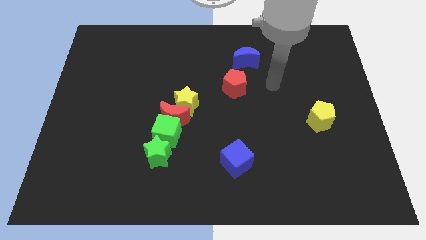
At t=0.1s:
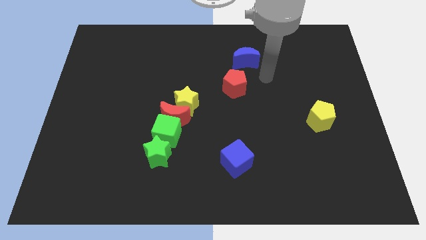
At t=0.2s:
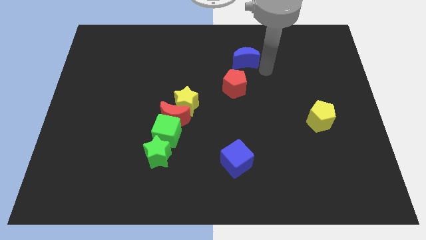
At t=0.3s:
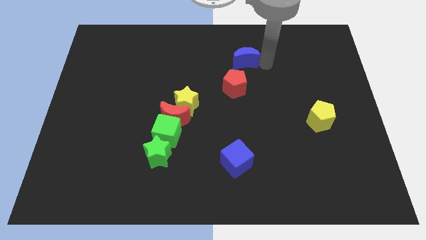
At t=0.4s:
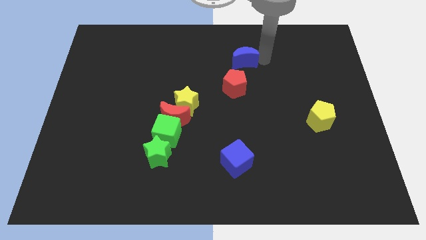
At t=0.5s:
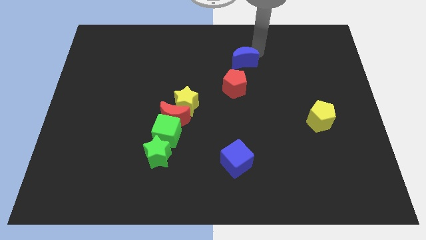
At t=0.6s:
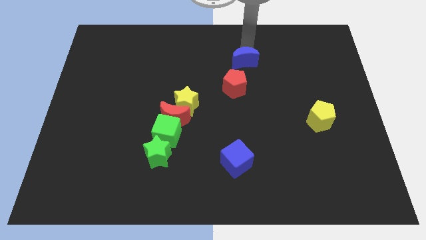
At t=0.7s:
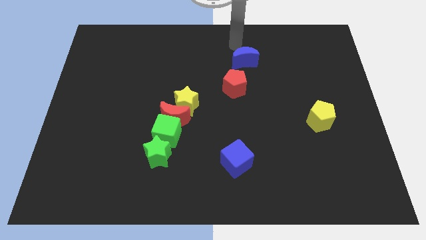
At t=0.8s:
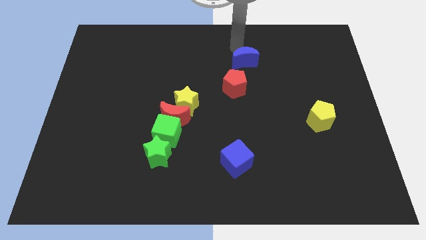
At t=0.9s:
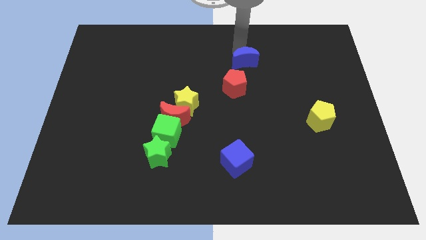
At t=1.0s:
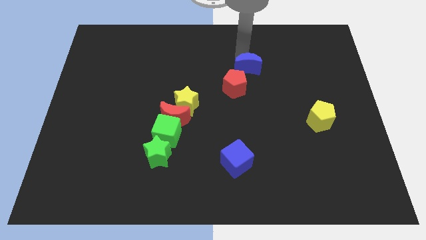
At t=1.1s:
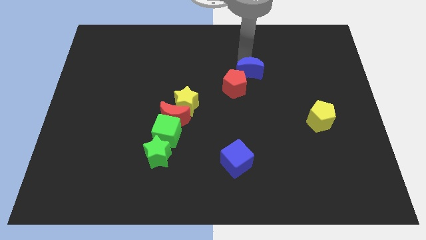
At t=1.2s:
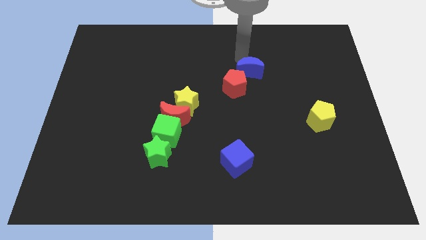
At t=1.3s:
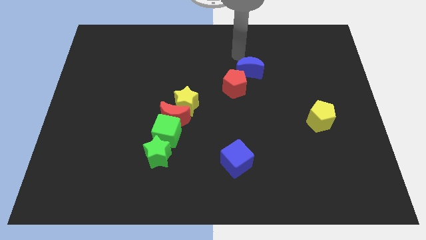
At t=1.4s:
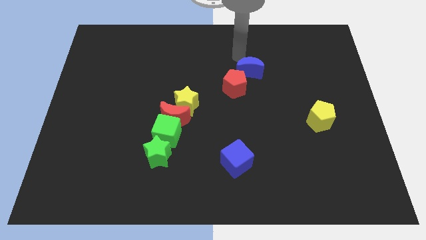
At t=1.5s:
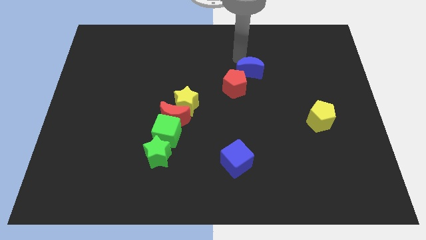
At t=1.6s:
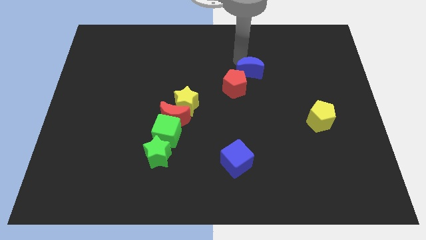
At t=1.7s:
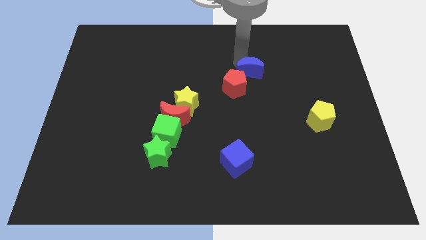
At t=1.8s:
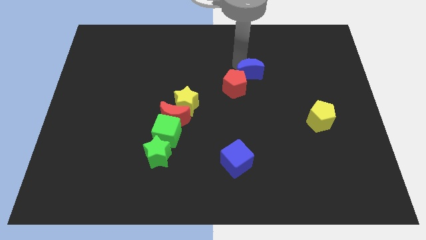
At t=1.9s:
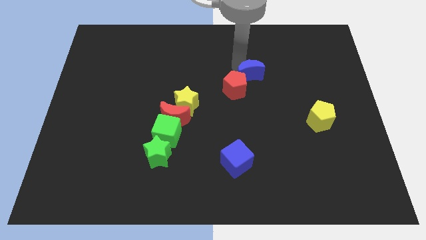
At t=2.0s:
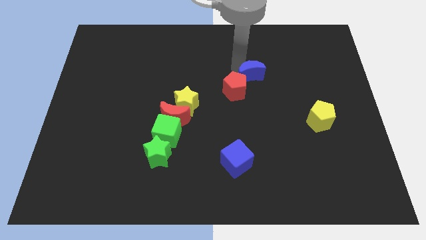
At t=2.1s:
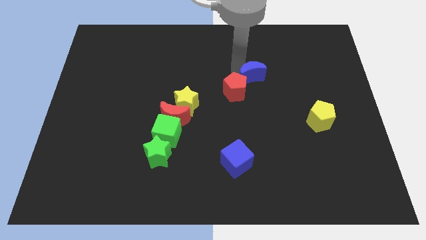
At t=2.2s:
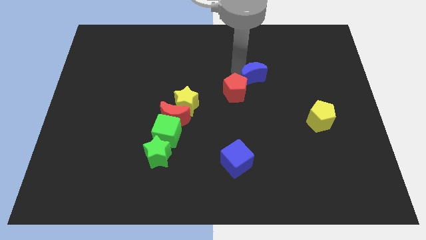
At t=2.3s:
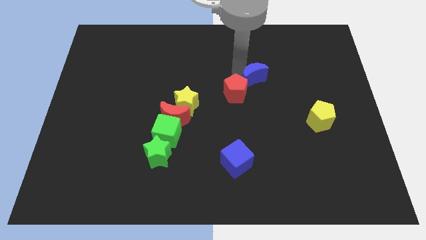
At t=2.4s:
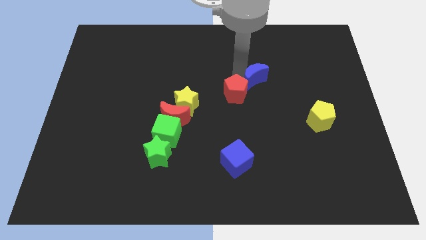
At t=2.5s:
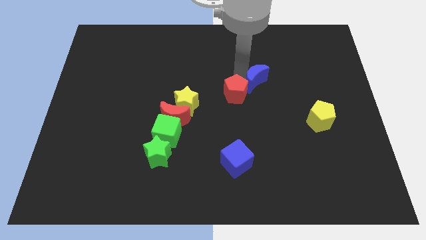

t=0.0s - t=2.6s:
move the blue moon a little downwards

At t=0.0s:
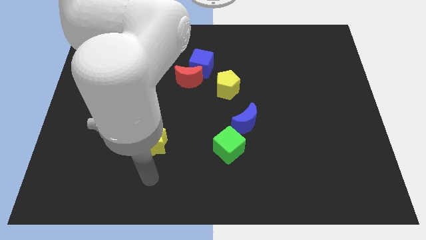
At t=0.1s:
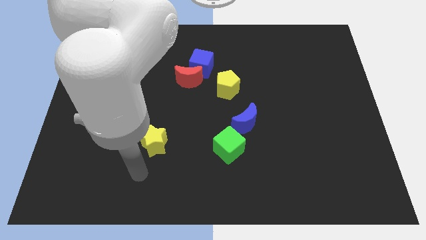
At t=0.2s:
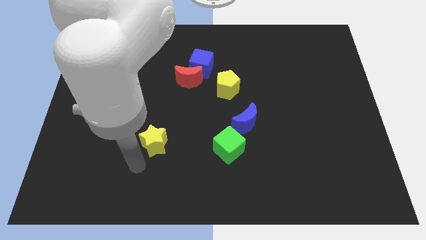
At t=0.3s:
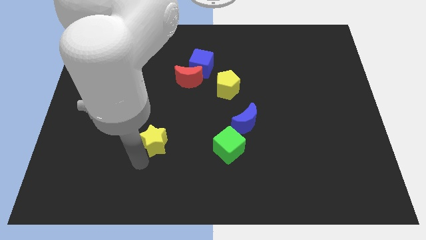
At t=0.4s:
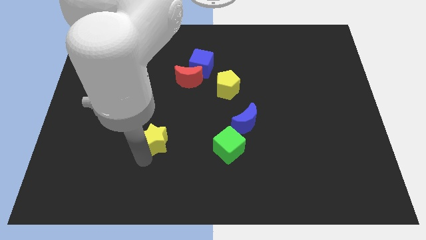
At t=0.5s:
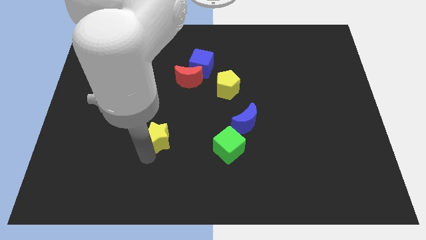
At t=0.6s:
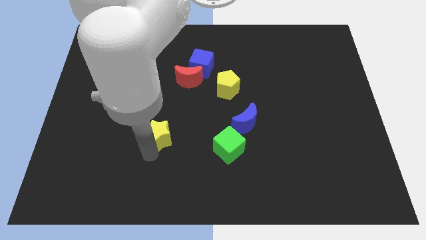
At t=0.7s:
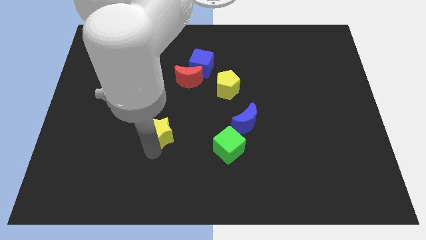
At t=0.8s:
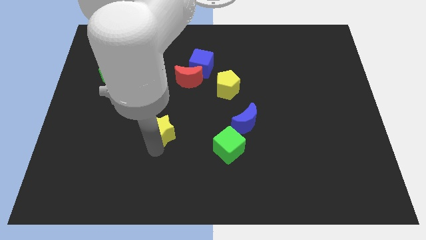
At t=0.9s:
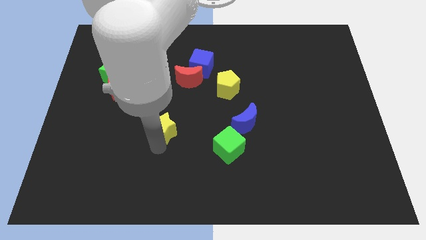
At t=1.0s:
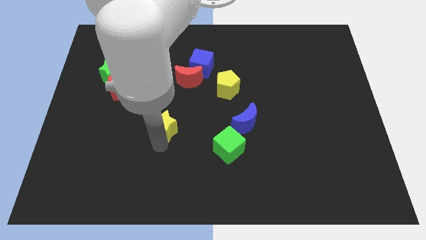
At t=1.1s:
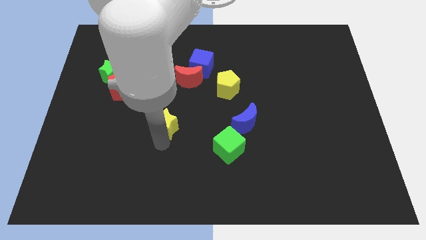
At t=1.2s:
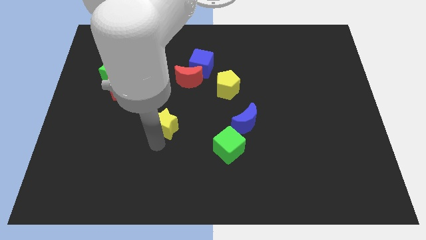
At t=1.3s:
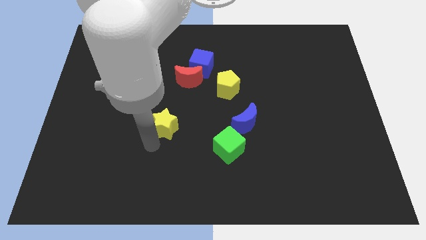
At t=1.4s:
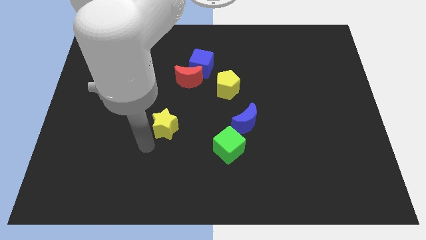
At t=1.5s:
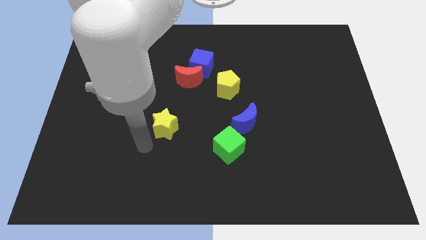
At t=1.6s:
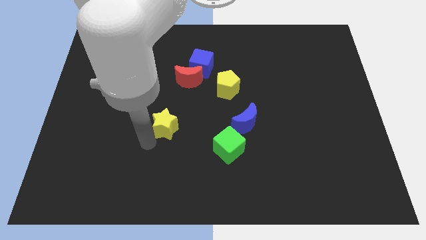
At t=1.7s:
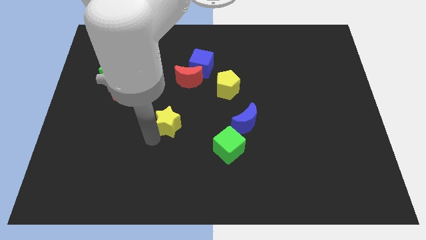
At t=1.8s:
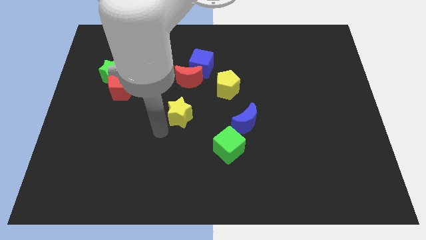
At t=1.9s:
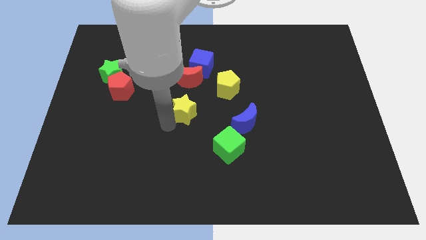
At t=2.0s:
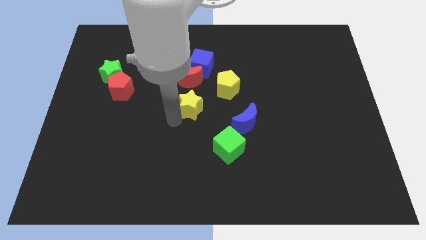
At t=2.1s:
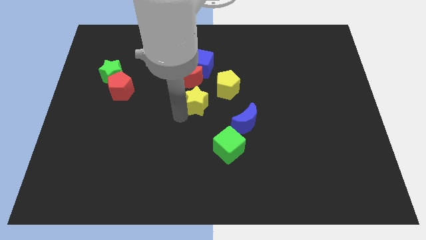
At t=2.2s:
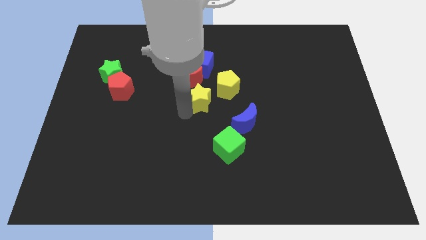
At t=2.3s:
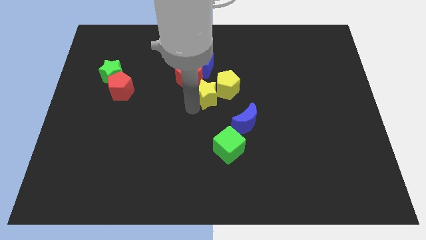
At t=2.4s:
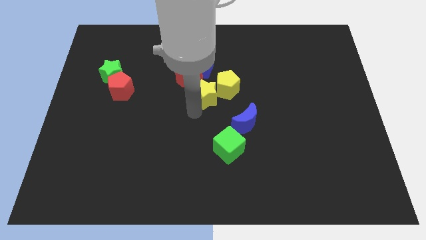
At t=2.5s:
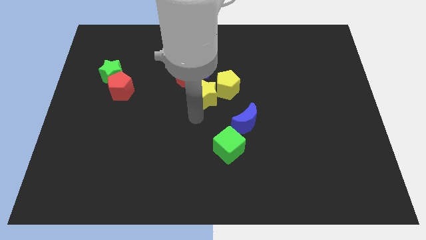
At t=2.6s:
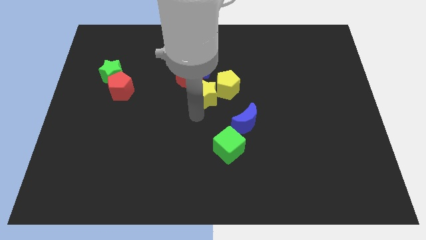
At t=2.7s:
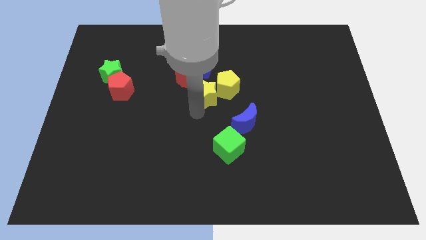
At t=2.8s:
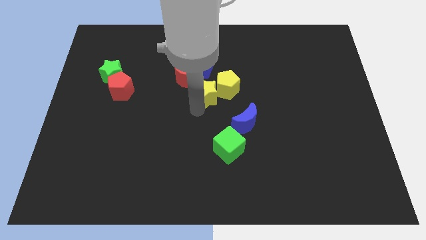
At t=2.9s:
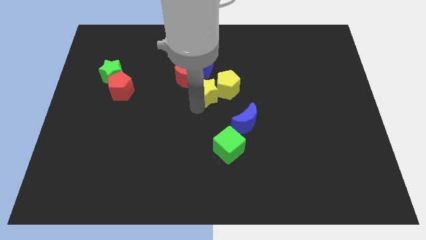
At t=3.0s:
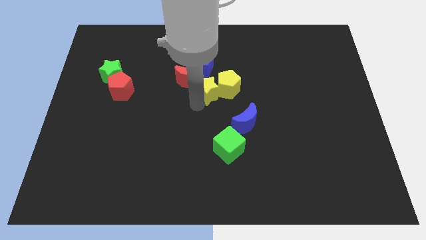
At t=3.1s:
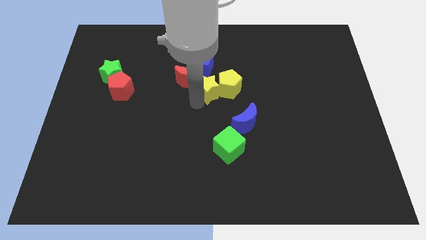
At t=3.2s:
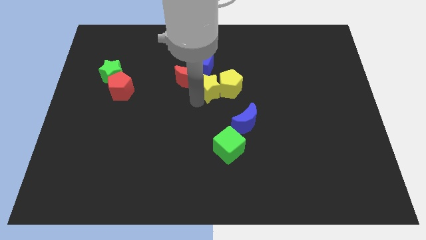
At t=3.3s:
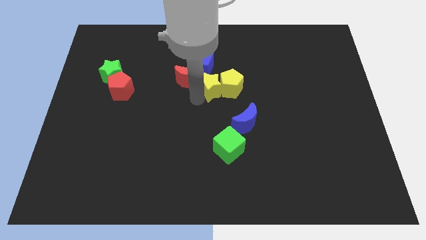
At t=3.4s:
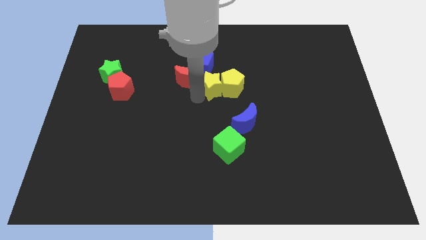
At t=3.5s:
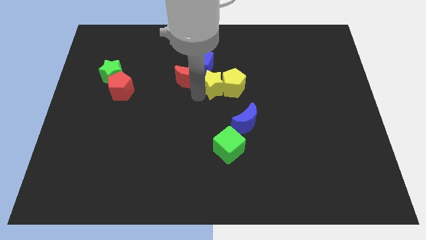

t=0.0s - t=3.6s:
move the yellow star up and to the right

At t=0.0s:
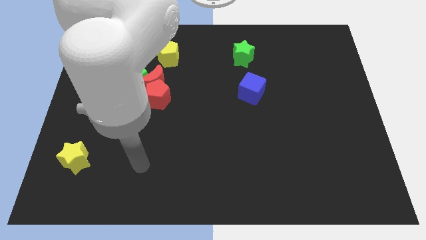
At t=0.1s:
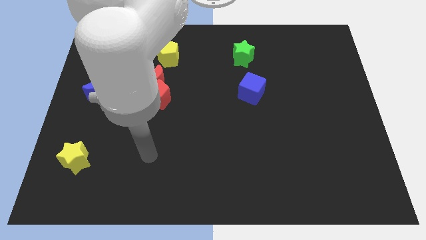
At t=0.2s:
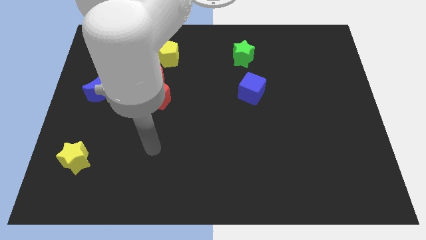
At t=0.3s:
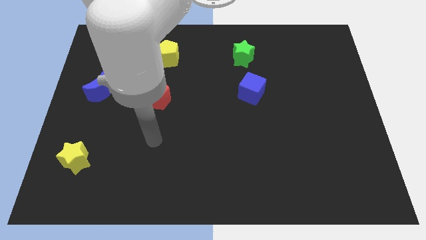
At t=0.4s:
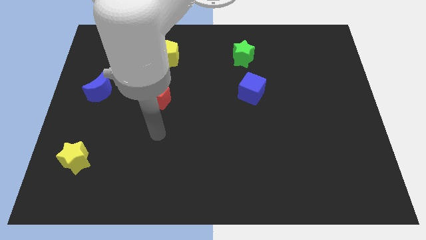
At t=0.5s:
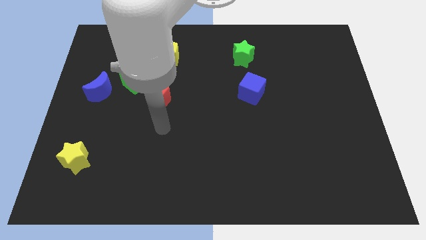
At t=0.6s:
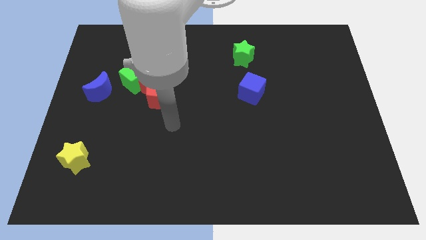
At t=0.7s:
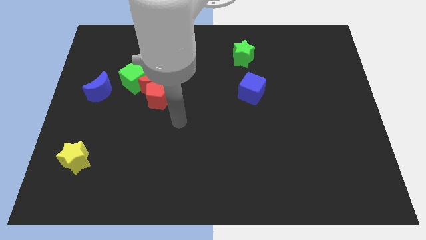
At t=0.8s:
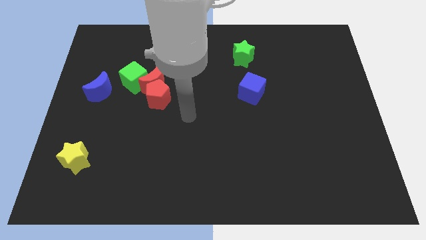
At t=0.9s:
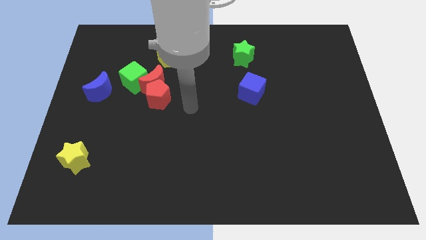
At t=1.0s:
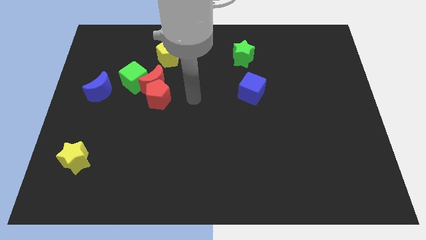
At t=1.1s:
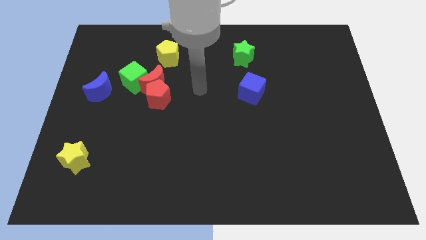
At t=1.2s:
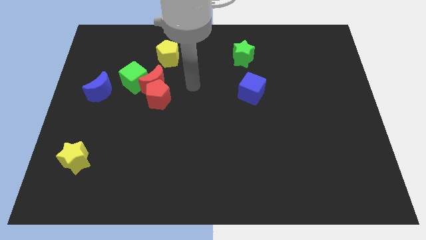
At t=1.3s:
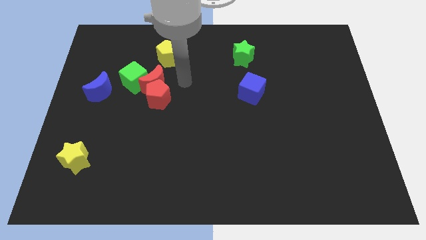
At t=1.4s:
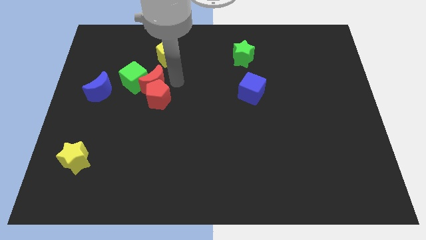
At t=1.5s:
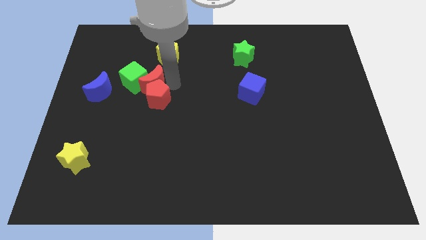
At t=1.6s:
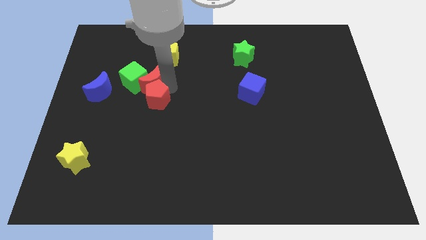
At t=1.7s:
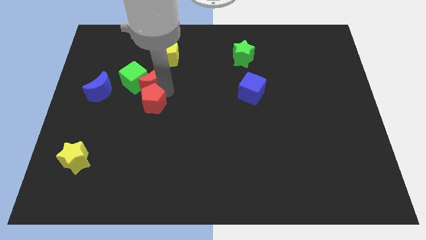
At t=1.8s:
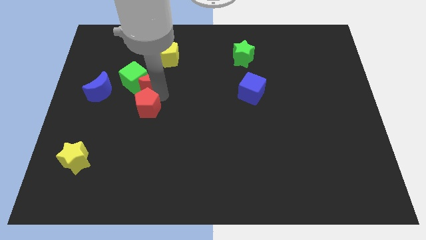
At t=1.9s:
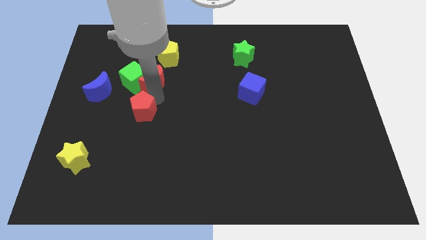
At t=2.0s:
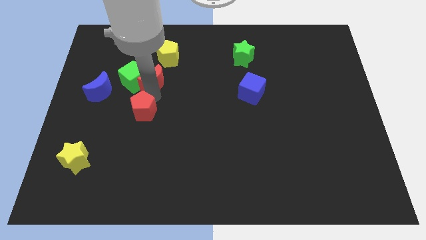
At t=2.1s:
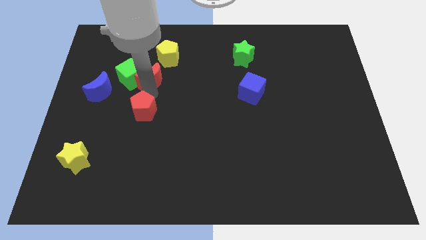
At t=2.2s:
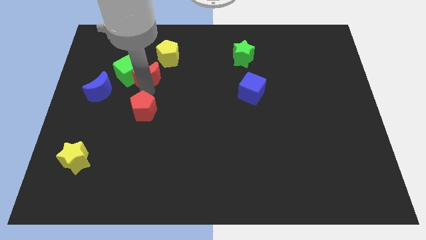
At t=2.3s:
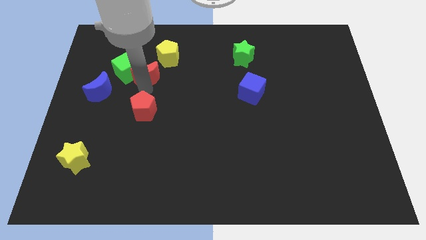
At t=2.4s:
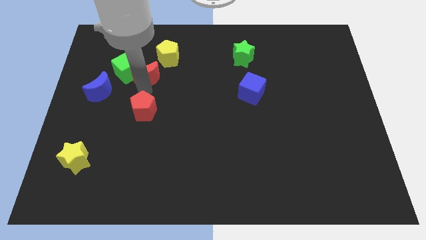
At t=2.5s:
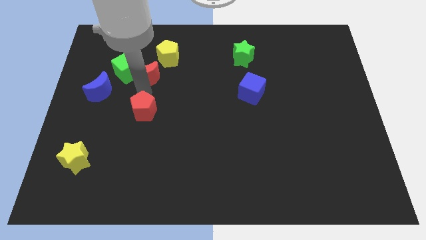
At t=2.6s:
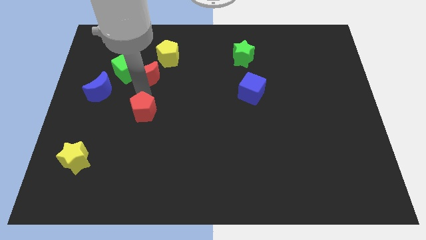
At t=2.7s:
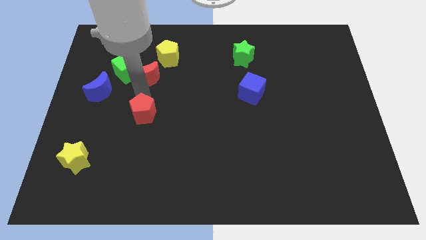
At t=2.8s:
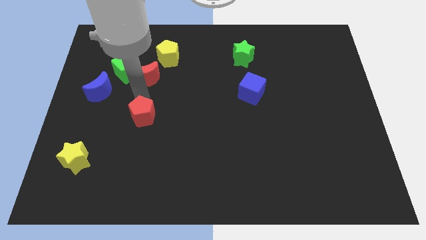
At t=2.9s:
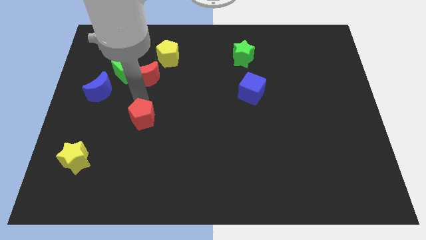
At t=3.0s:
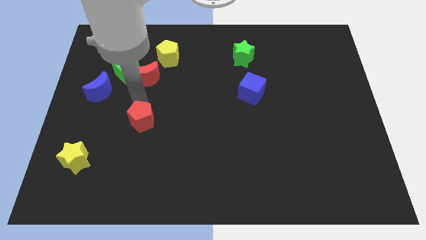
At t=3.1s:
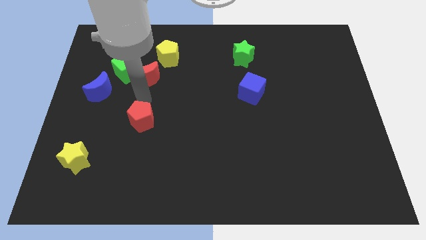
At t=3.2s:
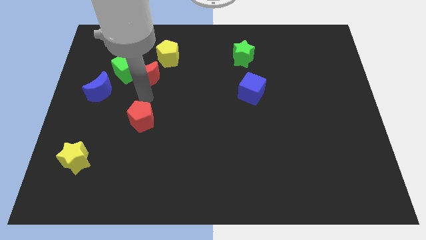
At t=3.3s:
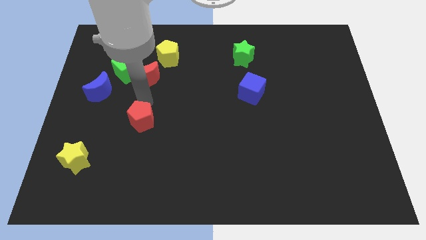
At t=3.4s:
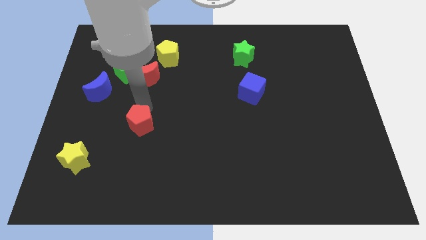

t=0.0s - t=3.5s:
slide the red pentagon slightly downwards
